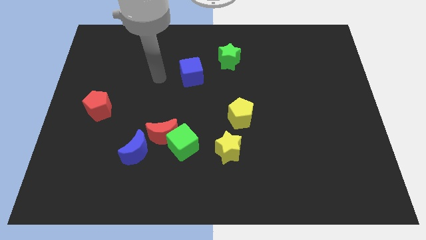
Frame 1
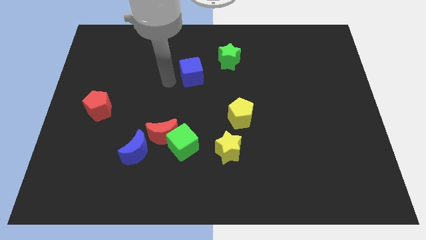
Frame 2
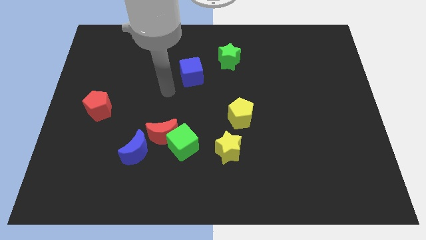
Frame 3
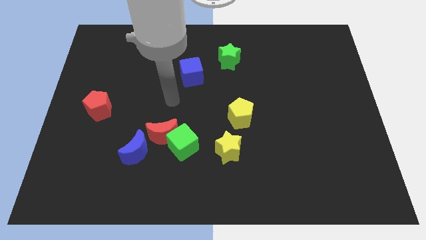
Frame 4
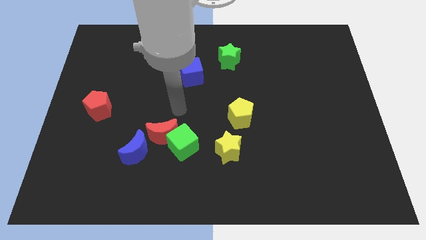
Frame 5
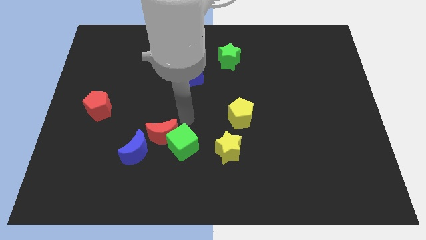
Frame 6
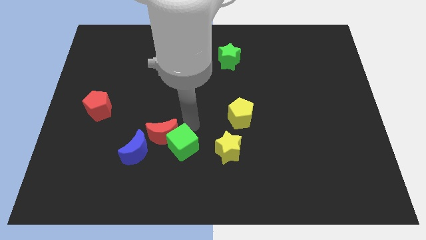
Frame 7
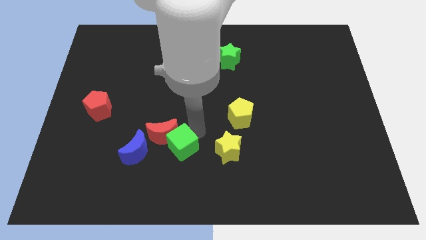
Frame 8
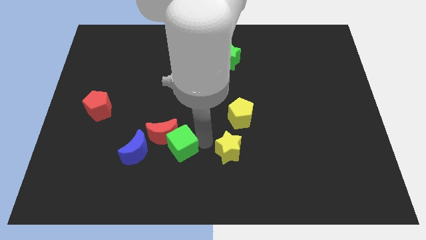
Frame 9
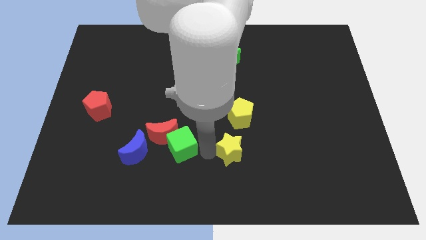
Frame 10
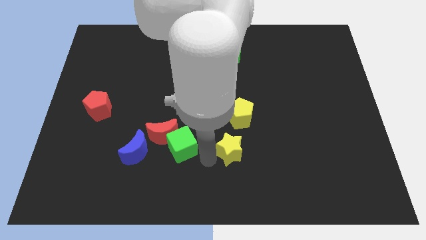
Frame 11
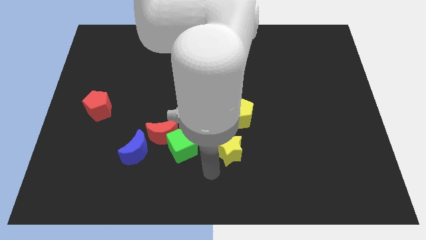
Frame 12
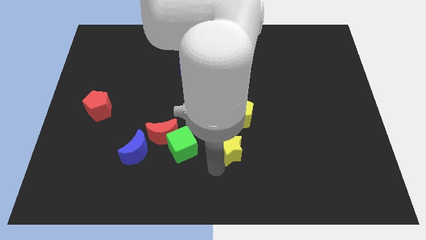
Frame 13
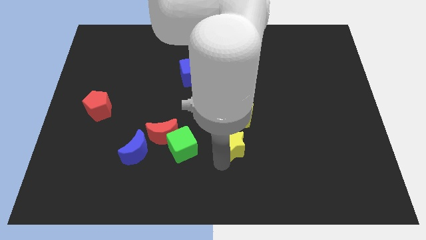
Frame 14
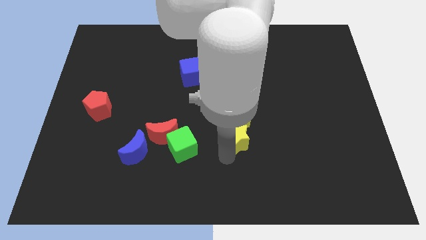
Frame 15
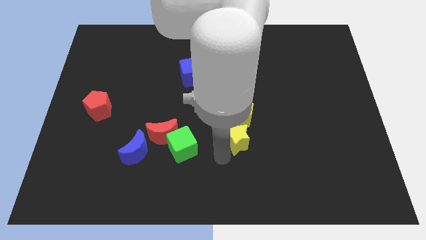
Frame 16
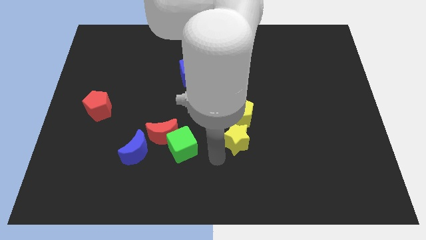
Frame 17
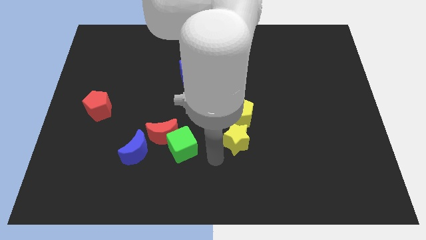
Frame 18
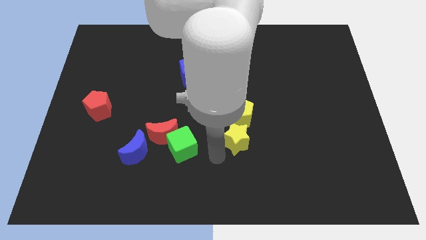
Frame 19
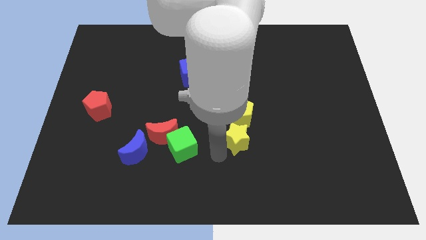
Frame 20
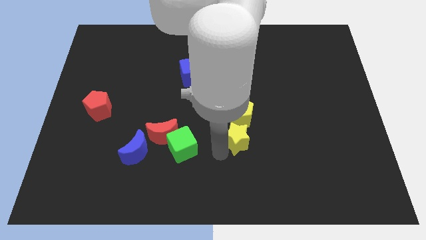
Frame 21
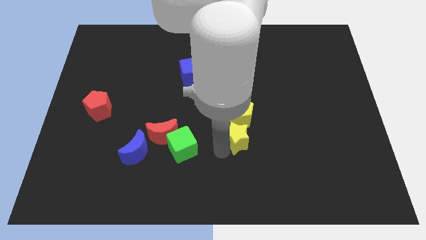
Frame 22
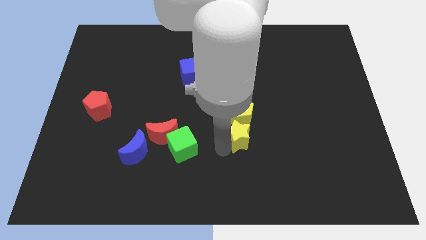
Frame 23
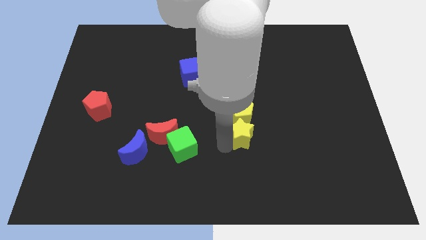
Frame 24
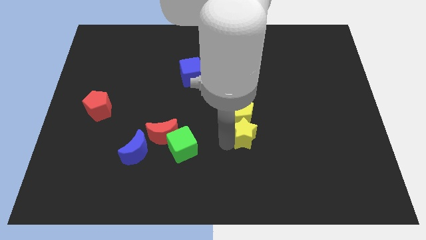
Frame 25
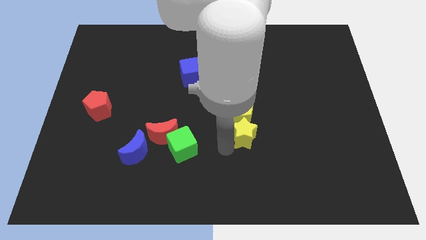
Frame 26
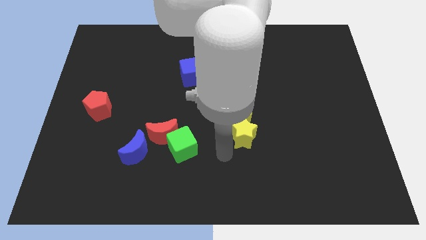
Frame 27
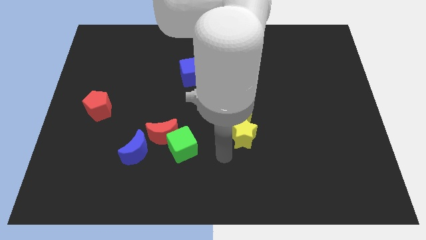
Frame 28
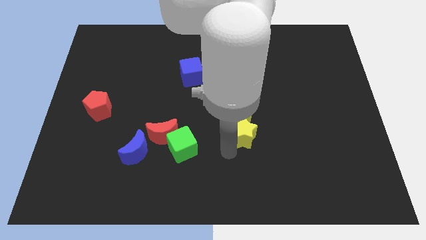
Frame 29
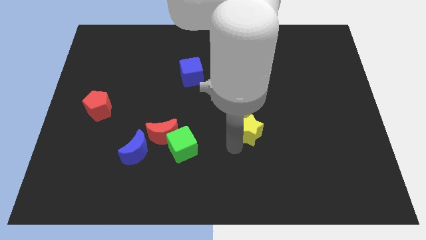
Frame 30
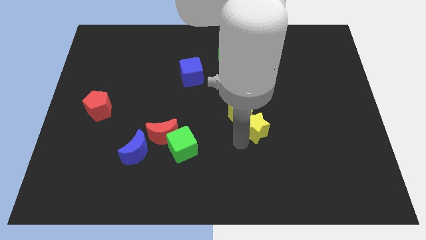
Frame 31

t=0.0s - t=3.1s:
slightly slide the yellow star up and right diagonally

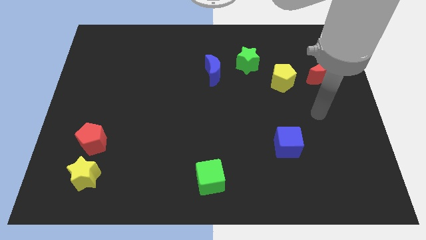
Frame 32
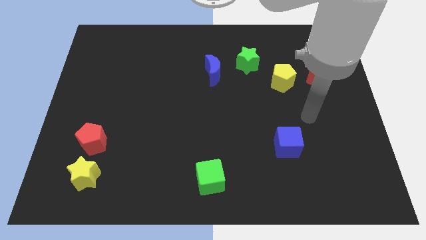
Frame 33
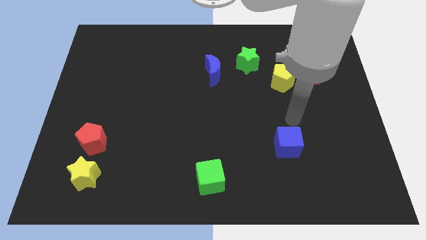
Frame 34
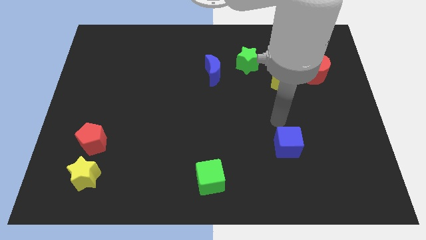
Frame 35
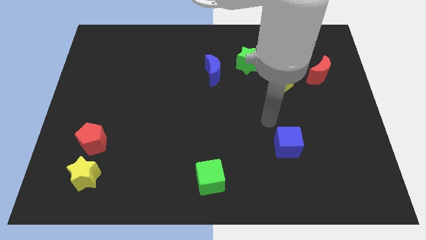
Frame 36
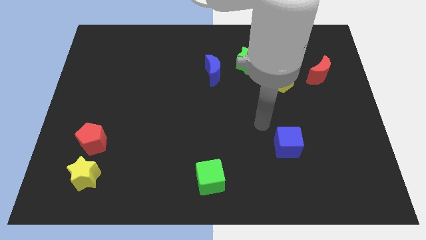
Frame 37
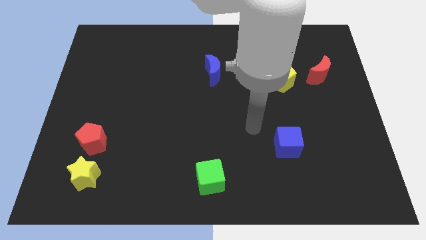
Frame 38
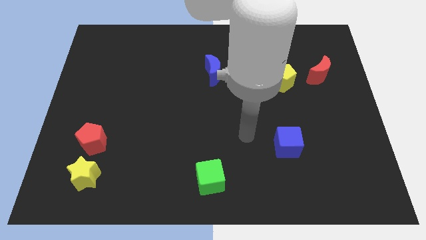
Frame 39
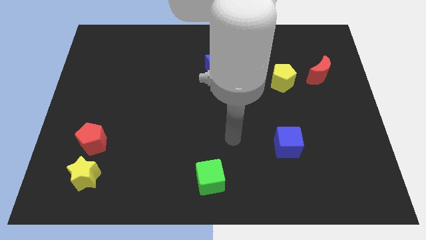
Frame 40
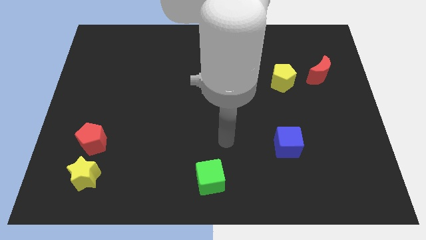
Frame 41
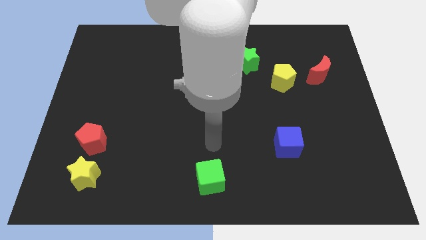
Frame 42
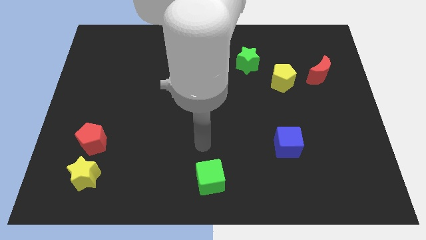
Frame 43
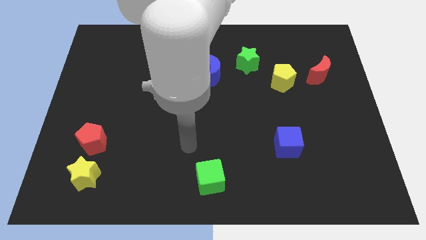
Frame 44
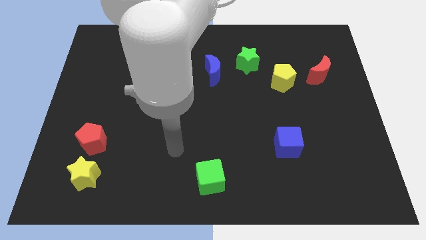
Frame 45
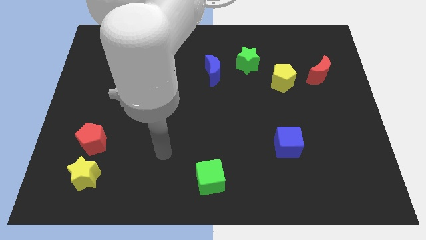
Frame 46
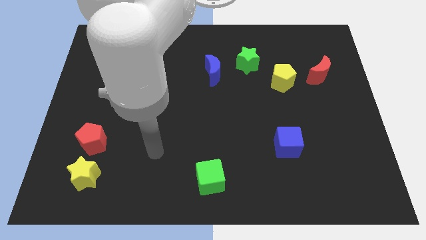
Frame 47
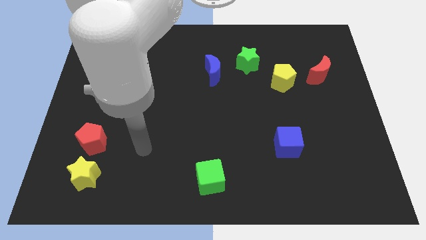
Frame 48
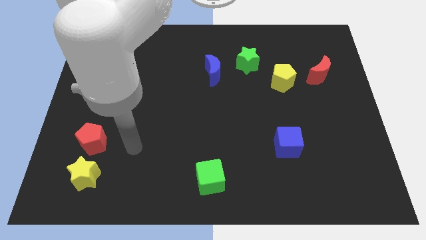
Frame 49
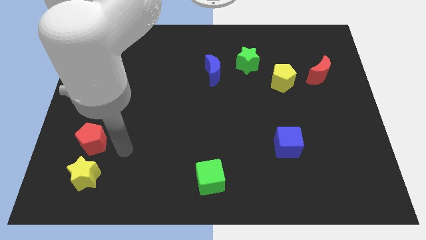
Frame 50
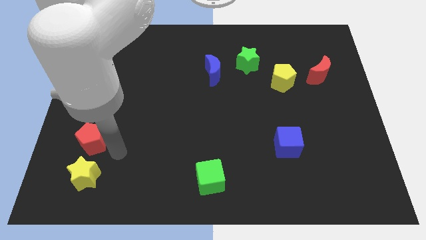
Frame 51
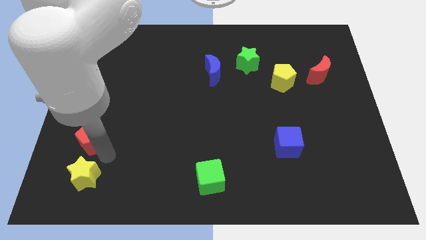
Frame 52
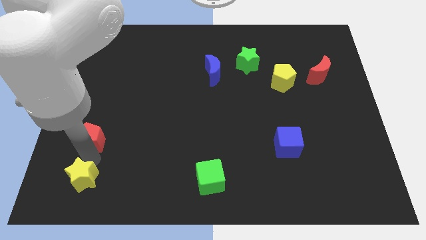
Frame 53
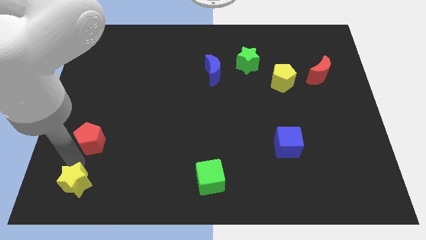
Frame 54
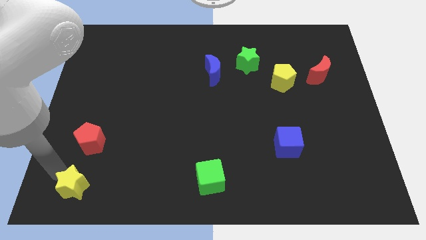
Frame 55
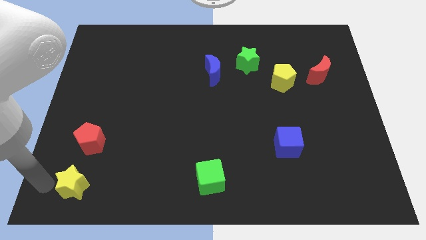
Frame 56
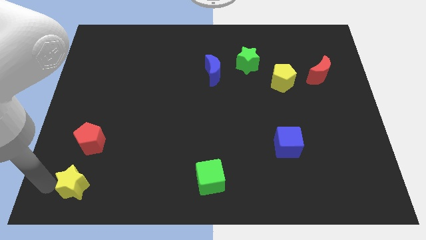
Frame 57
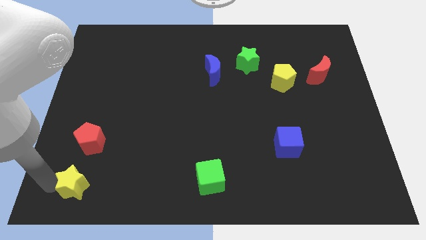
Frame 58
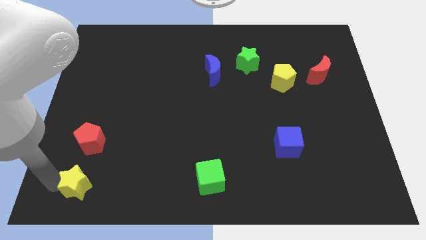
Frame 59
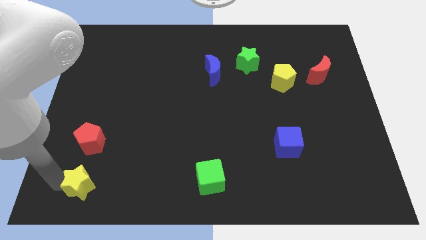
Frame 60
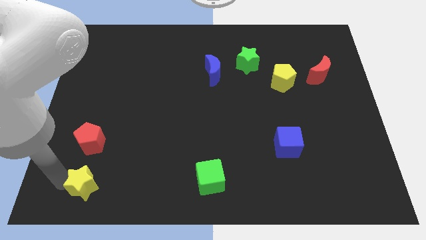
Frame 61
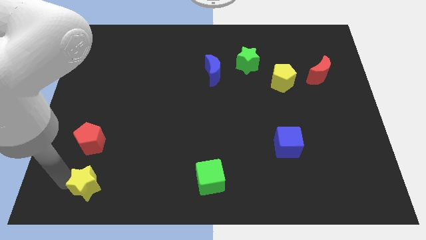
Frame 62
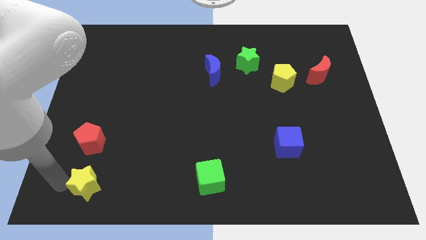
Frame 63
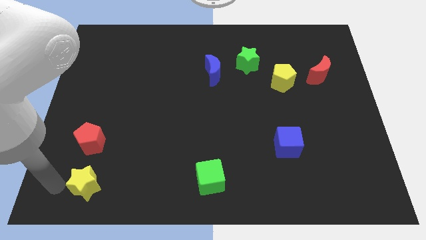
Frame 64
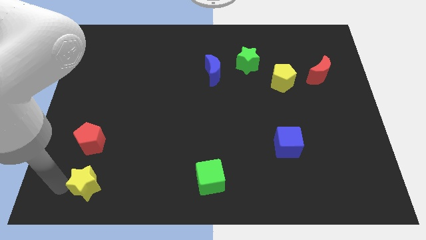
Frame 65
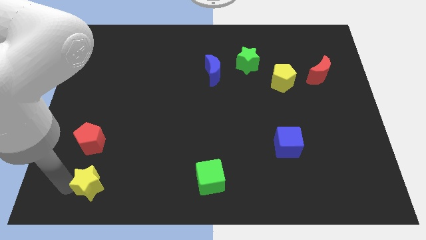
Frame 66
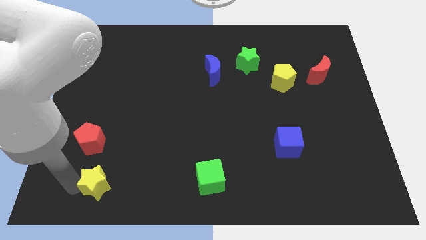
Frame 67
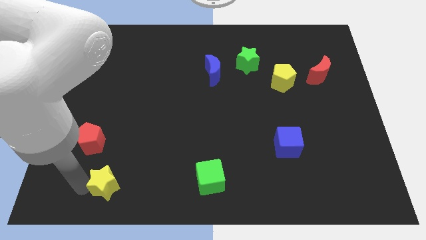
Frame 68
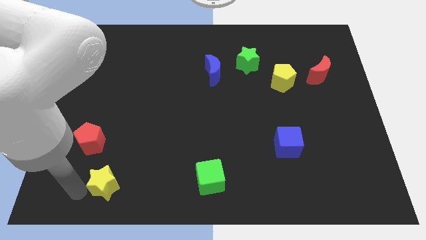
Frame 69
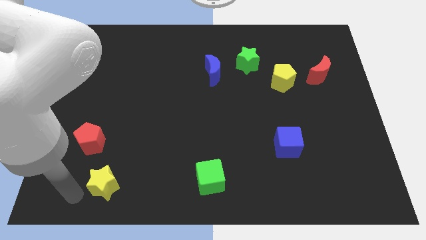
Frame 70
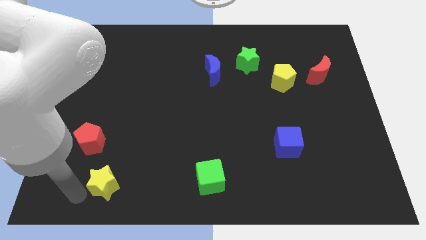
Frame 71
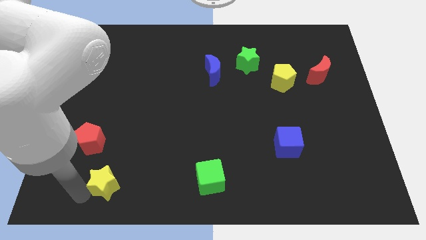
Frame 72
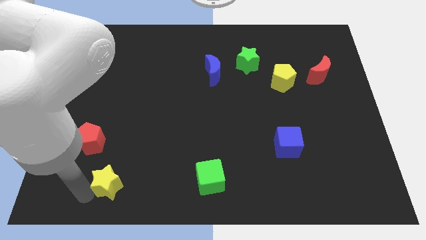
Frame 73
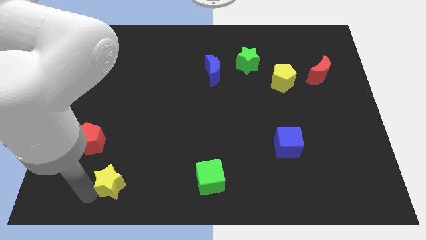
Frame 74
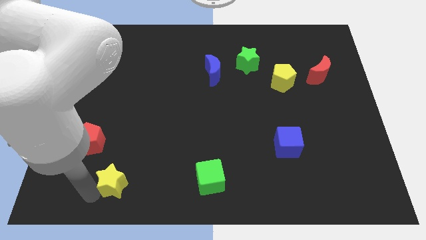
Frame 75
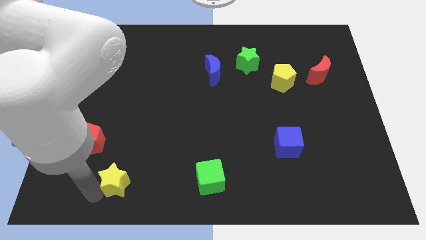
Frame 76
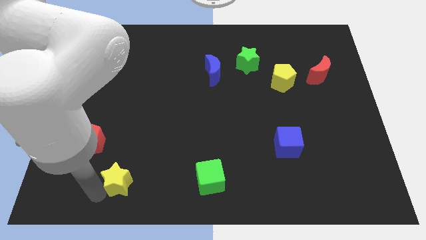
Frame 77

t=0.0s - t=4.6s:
move the yellow star to the right slightly

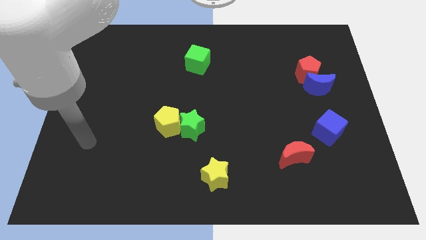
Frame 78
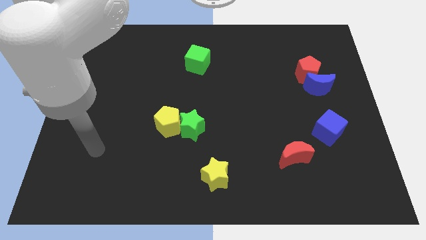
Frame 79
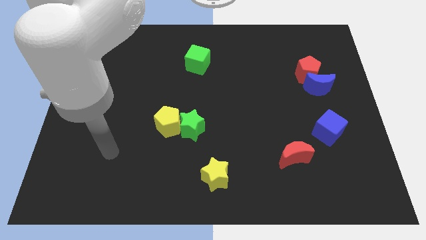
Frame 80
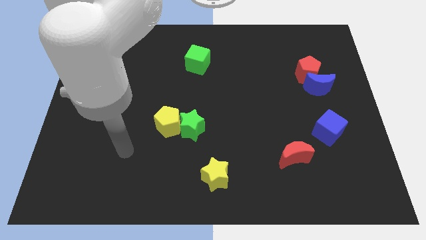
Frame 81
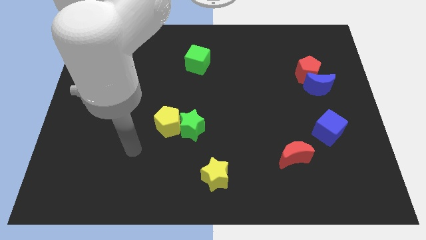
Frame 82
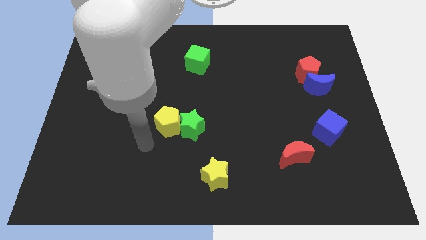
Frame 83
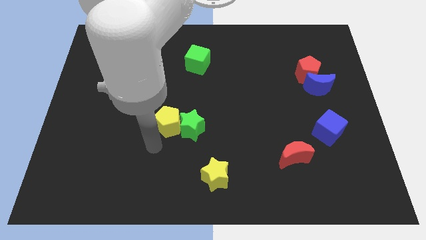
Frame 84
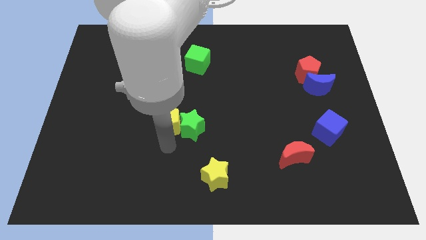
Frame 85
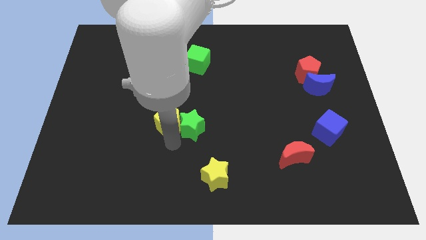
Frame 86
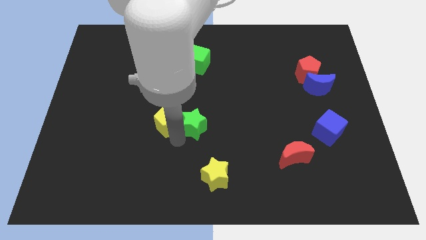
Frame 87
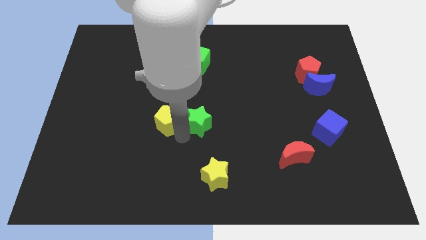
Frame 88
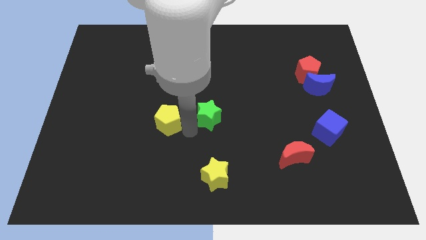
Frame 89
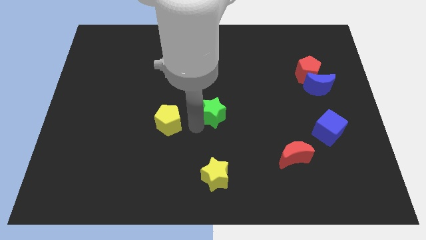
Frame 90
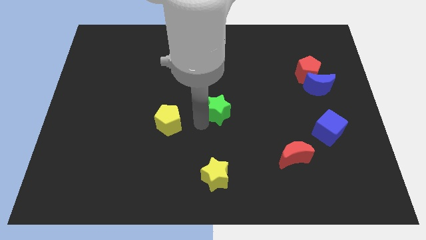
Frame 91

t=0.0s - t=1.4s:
move the green star a bit upwards and to the right
